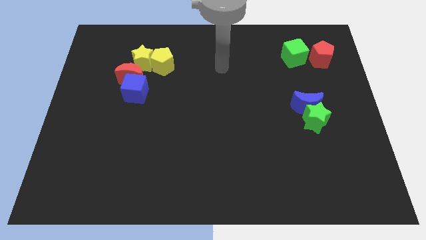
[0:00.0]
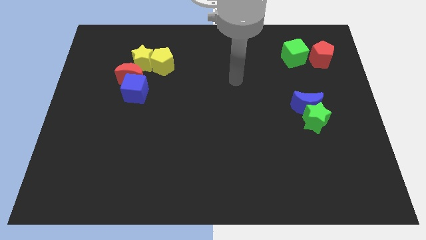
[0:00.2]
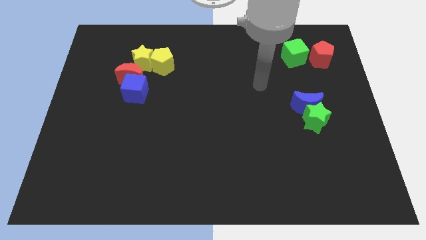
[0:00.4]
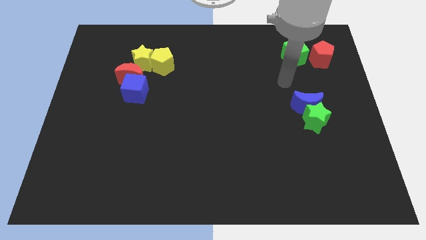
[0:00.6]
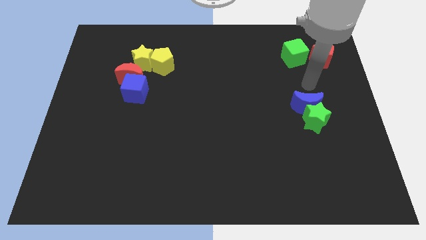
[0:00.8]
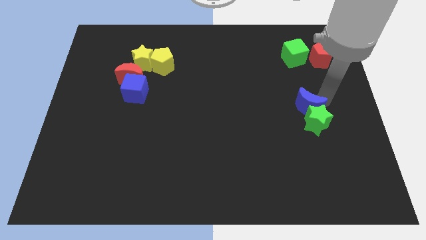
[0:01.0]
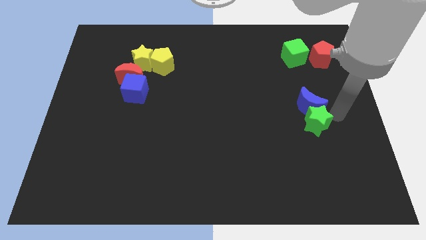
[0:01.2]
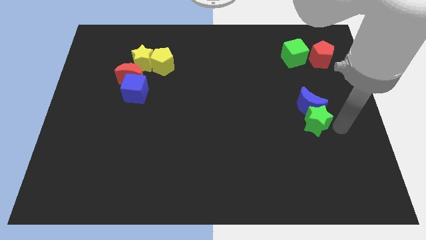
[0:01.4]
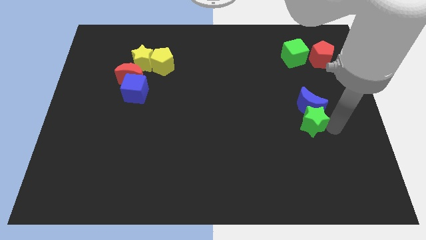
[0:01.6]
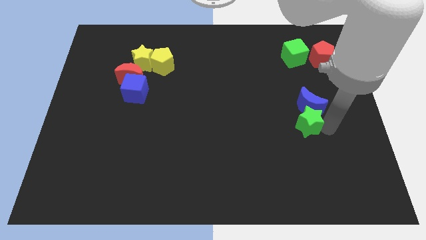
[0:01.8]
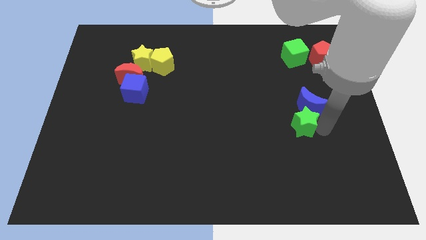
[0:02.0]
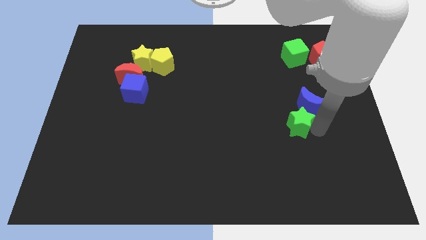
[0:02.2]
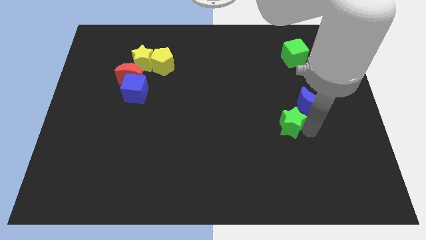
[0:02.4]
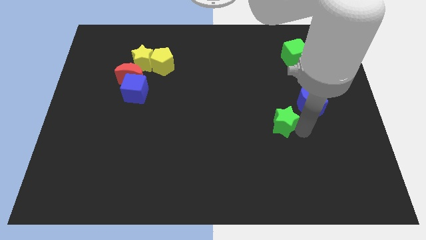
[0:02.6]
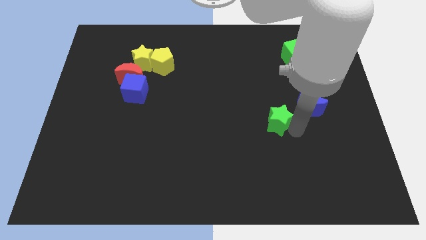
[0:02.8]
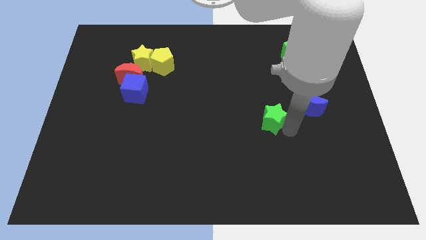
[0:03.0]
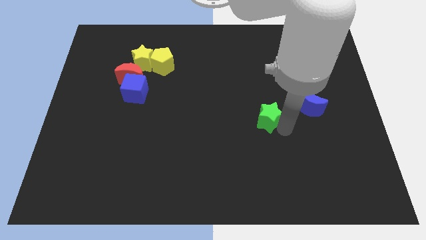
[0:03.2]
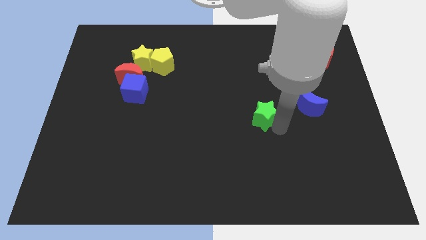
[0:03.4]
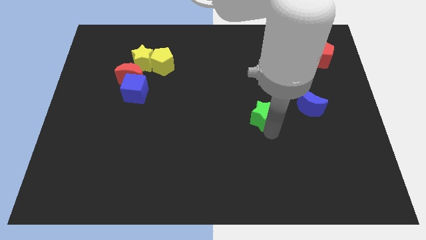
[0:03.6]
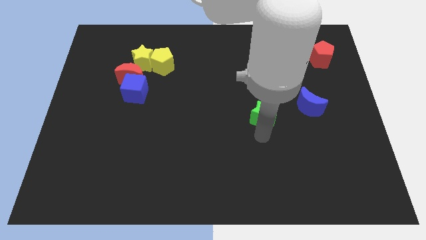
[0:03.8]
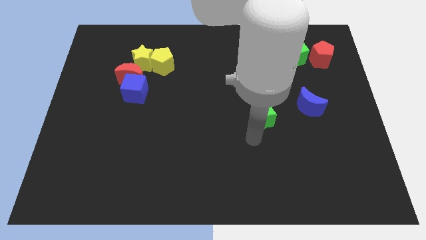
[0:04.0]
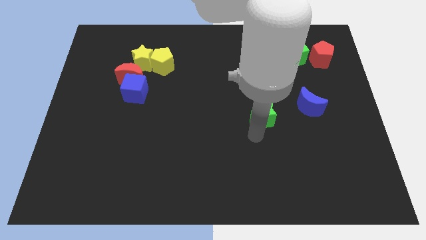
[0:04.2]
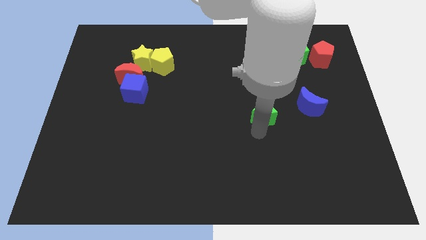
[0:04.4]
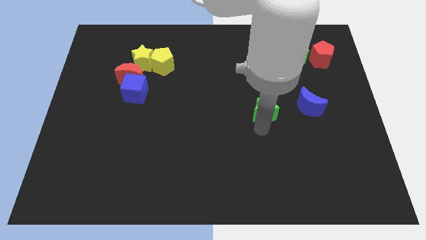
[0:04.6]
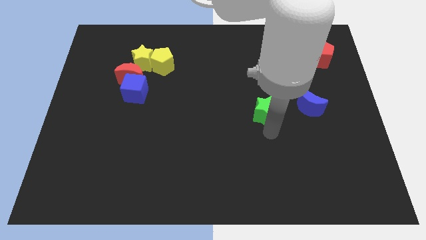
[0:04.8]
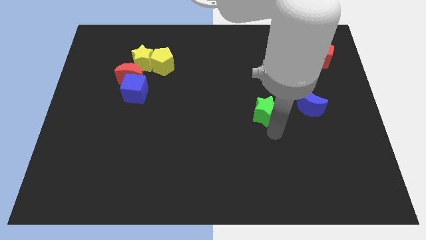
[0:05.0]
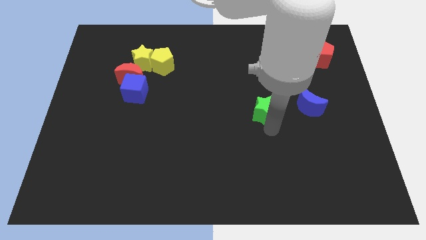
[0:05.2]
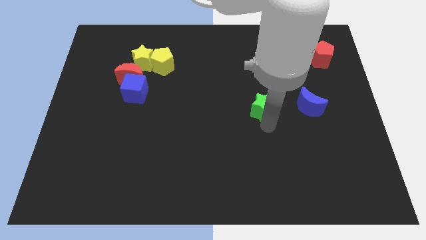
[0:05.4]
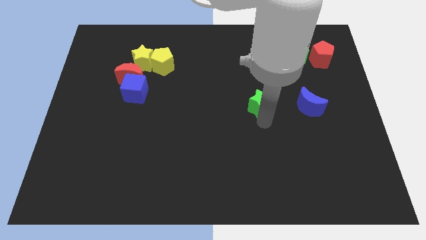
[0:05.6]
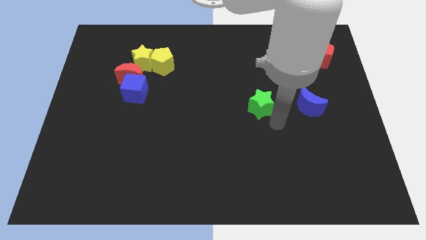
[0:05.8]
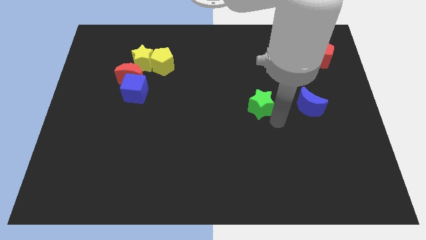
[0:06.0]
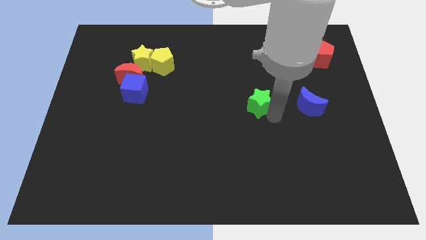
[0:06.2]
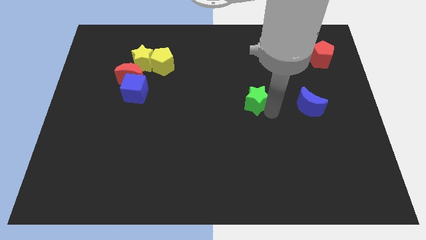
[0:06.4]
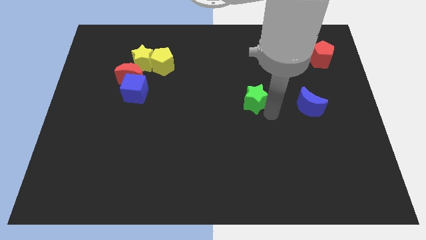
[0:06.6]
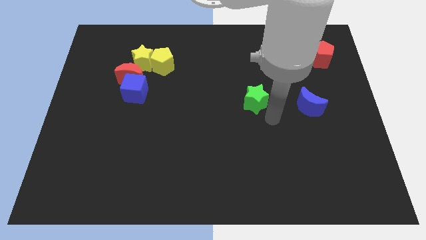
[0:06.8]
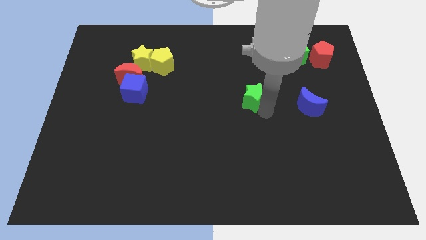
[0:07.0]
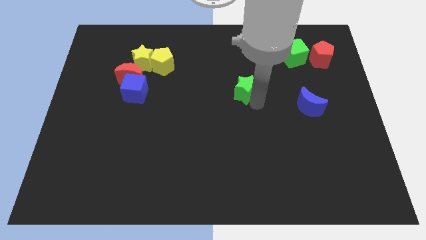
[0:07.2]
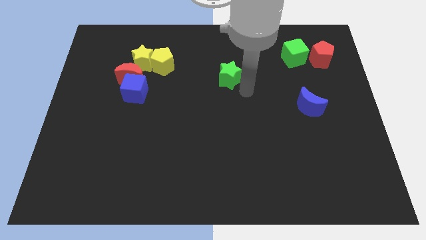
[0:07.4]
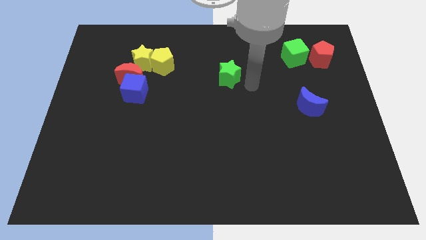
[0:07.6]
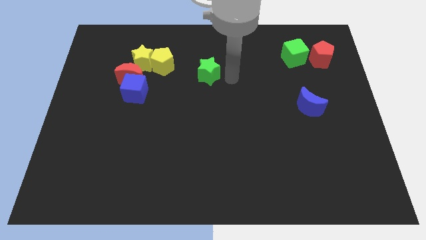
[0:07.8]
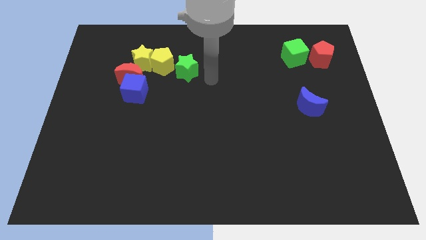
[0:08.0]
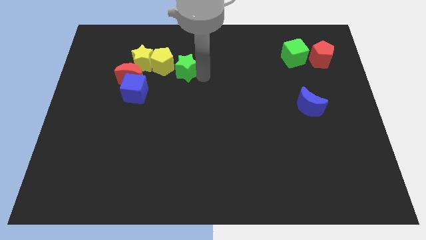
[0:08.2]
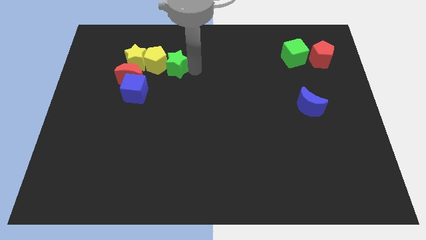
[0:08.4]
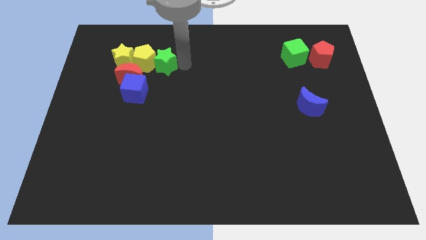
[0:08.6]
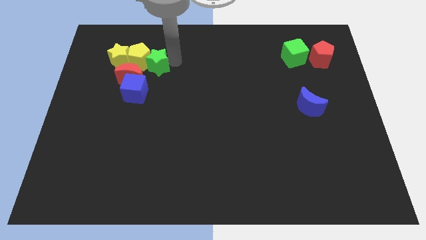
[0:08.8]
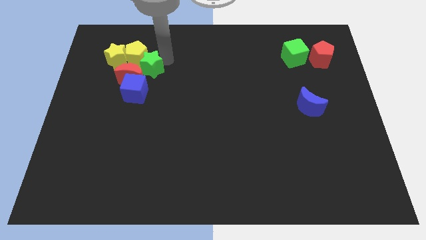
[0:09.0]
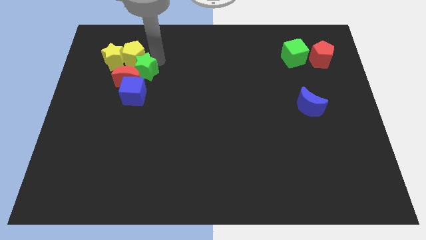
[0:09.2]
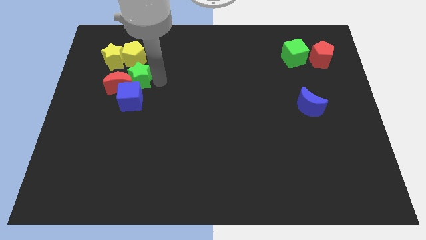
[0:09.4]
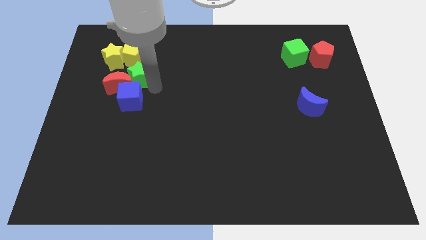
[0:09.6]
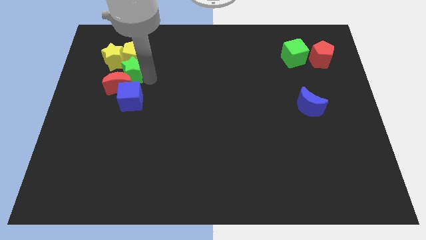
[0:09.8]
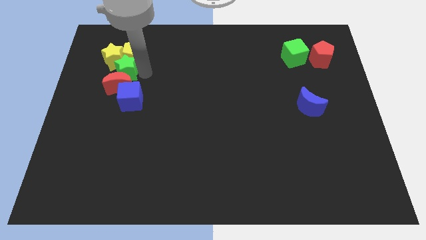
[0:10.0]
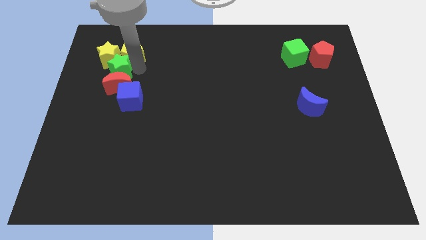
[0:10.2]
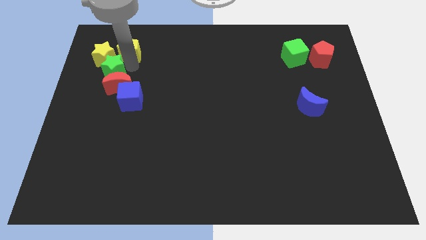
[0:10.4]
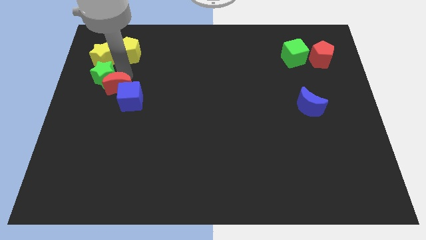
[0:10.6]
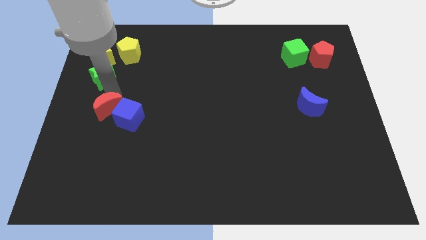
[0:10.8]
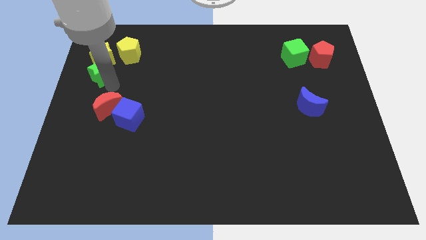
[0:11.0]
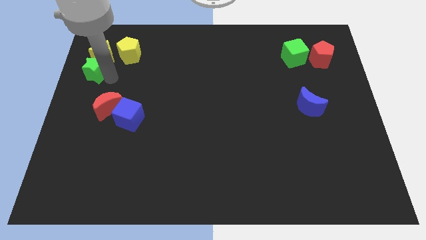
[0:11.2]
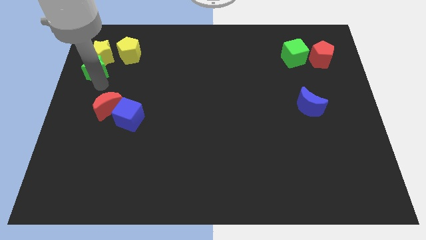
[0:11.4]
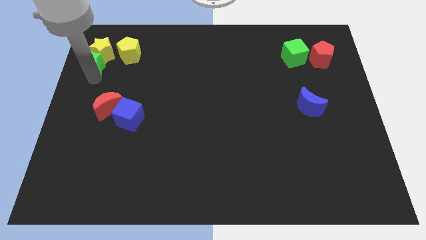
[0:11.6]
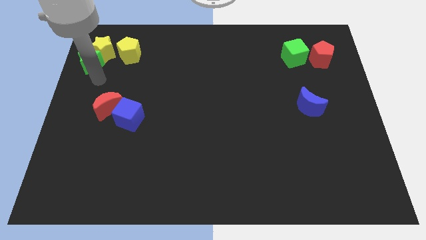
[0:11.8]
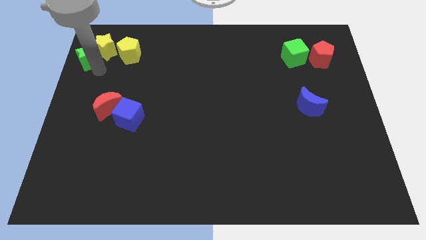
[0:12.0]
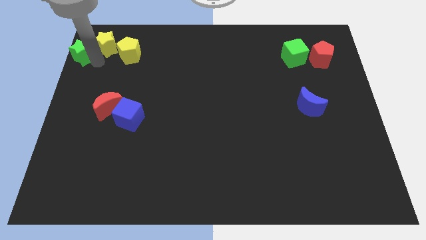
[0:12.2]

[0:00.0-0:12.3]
move the green star to the top left
